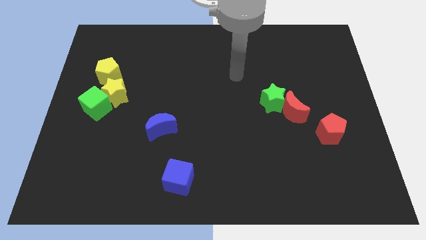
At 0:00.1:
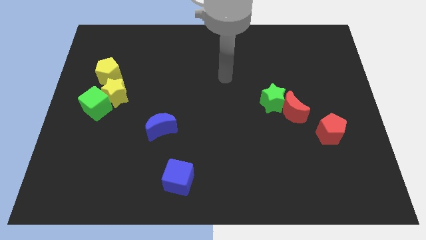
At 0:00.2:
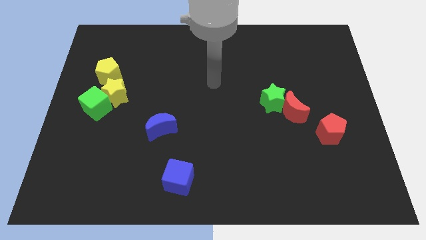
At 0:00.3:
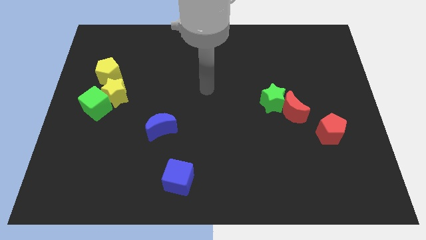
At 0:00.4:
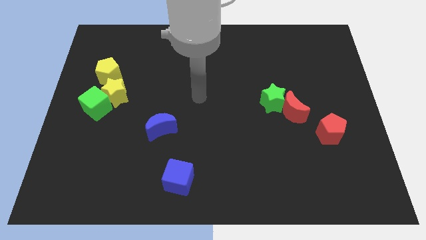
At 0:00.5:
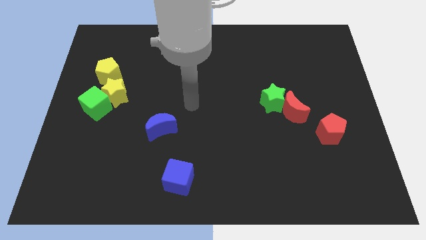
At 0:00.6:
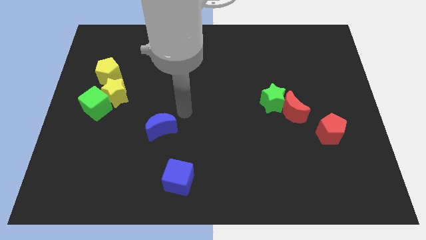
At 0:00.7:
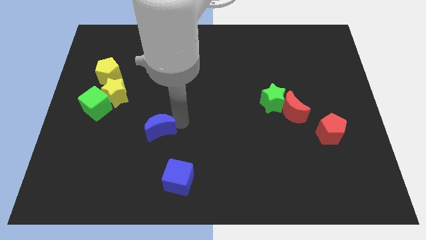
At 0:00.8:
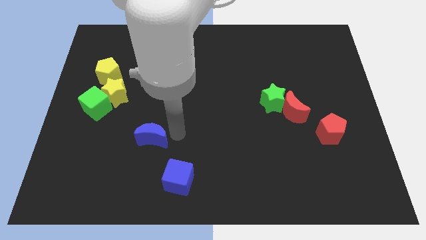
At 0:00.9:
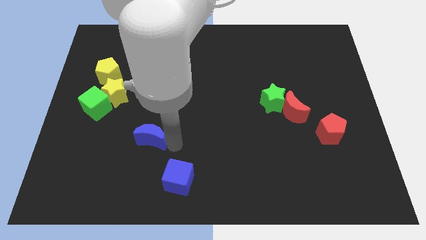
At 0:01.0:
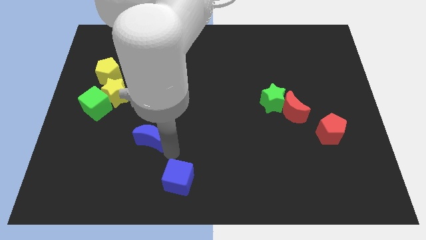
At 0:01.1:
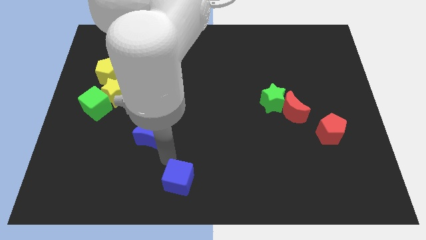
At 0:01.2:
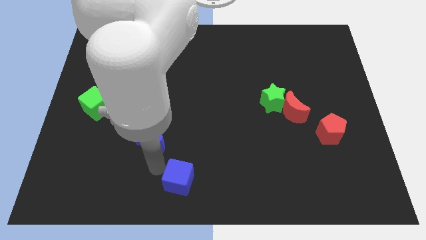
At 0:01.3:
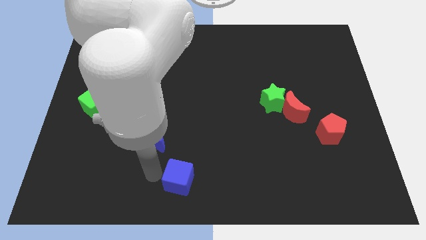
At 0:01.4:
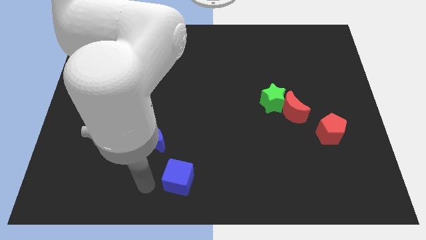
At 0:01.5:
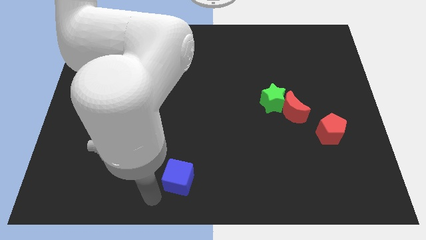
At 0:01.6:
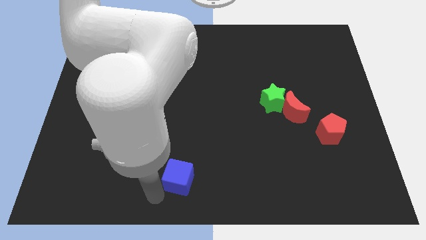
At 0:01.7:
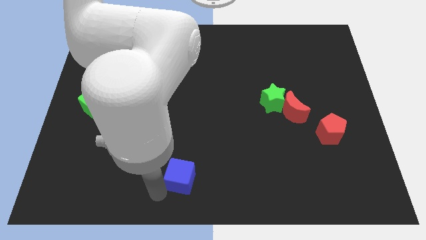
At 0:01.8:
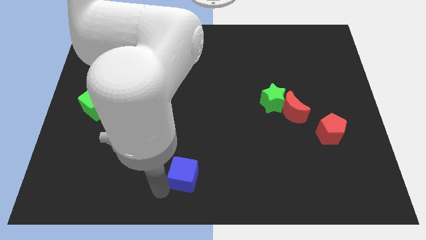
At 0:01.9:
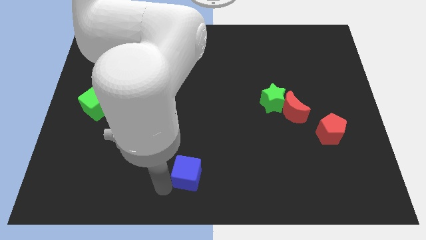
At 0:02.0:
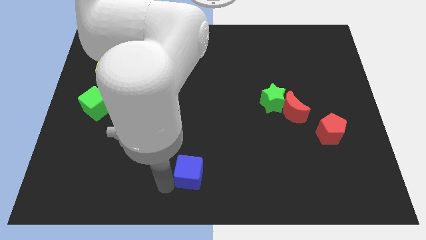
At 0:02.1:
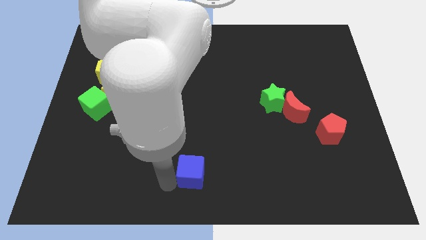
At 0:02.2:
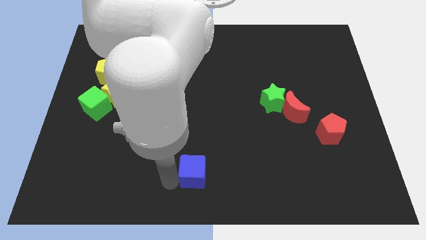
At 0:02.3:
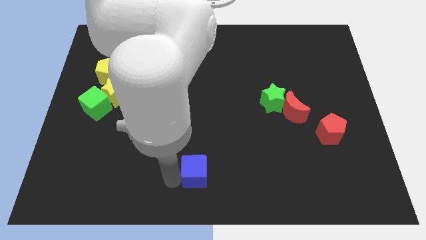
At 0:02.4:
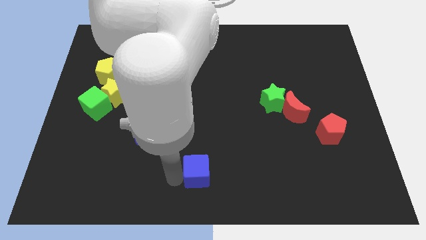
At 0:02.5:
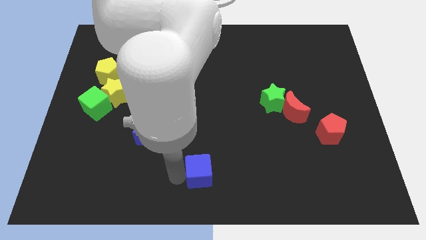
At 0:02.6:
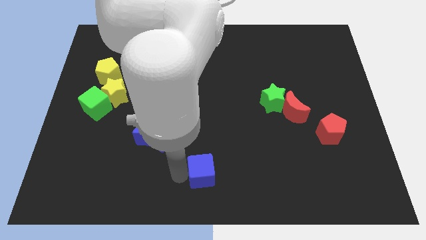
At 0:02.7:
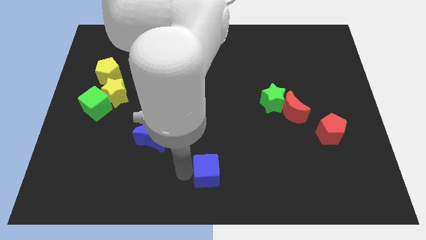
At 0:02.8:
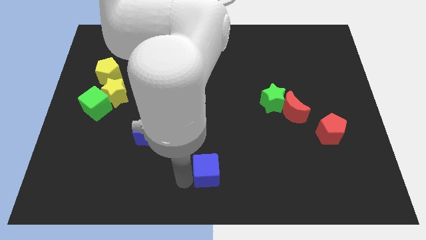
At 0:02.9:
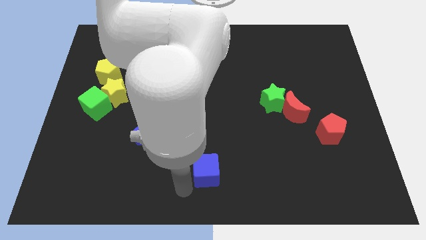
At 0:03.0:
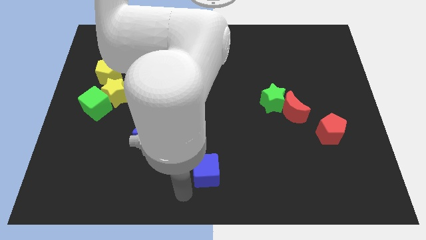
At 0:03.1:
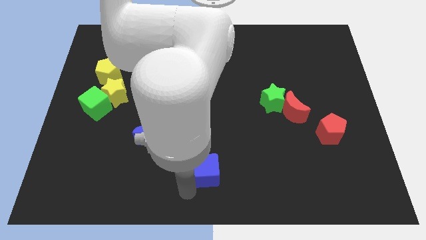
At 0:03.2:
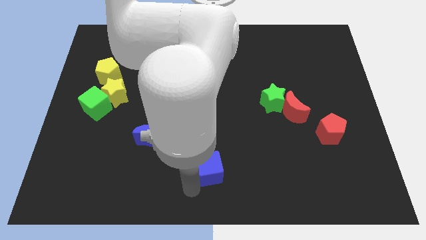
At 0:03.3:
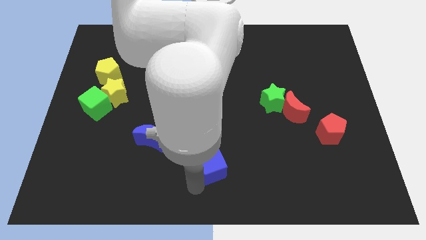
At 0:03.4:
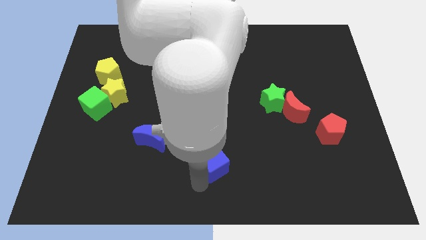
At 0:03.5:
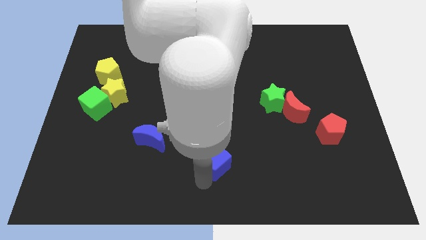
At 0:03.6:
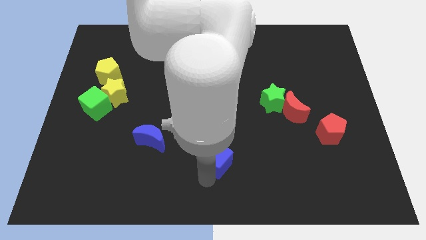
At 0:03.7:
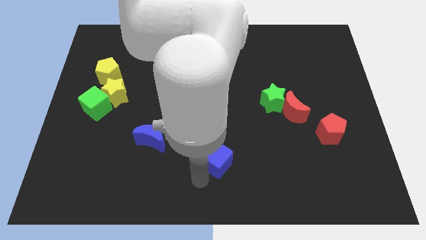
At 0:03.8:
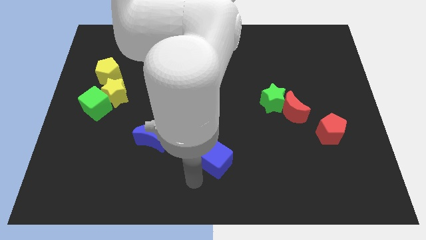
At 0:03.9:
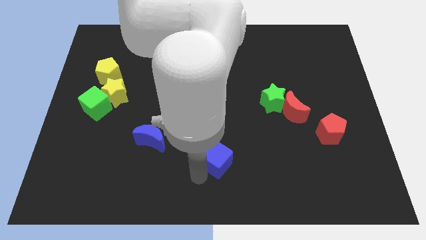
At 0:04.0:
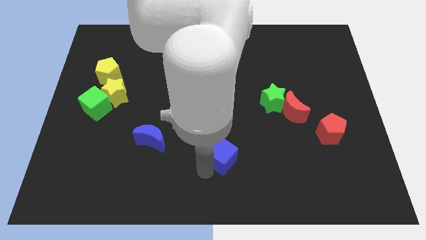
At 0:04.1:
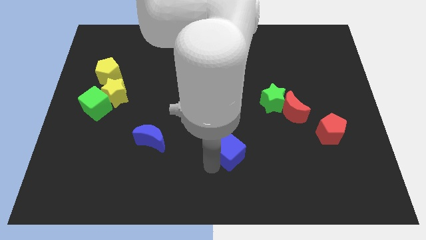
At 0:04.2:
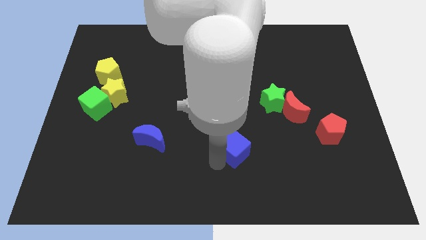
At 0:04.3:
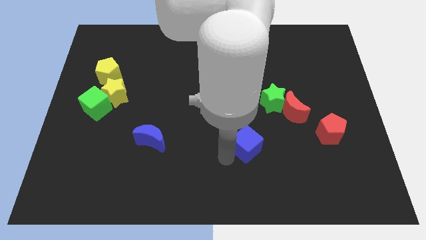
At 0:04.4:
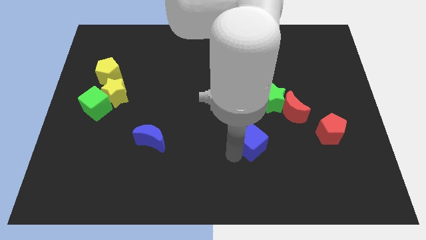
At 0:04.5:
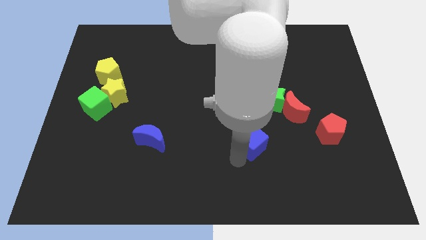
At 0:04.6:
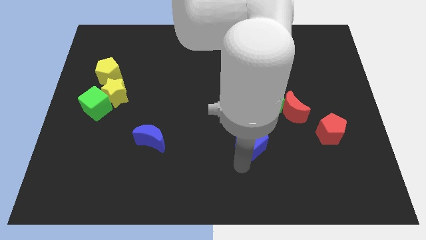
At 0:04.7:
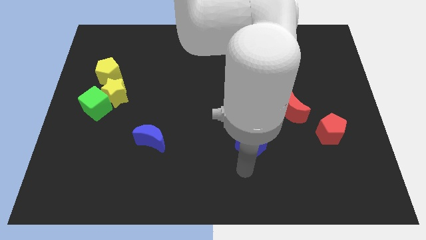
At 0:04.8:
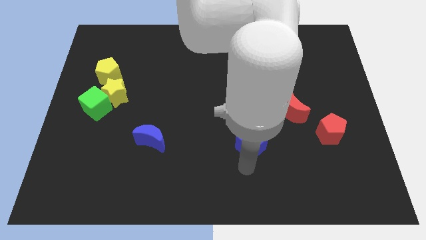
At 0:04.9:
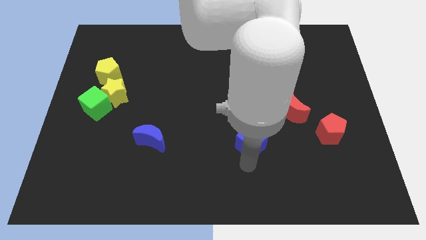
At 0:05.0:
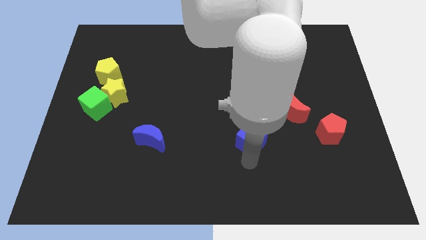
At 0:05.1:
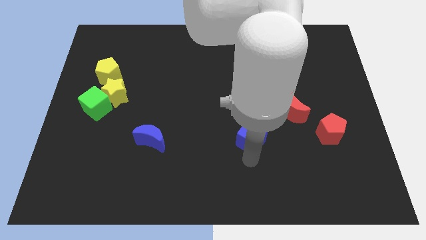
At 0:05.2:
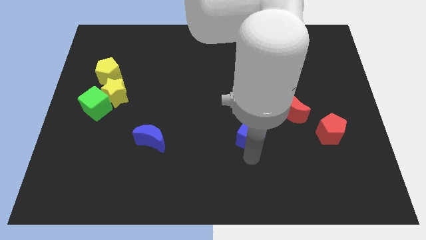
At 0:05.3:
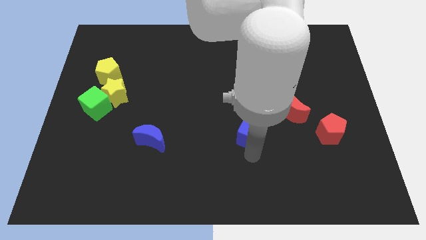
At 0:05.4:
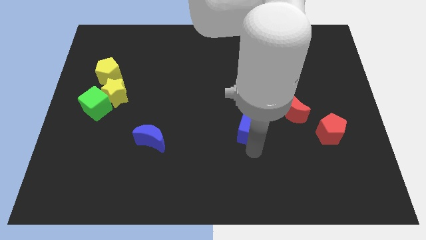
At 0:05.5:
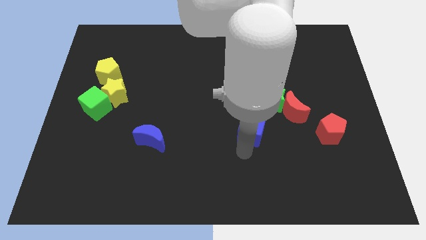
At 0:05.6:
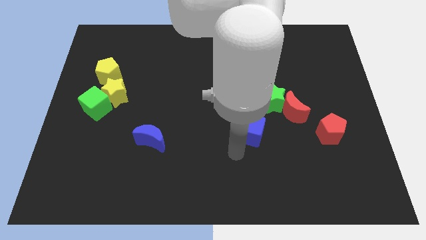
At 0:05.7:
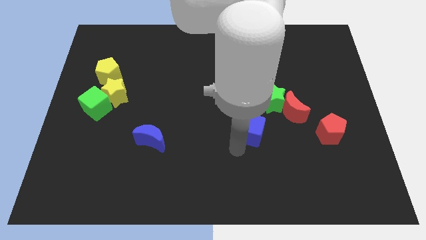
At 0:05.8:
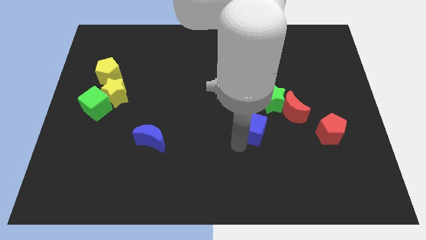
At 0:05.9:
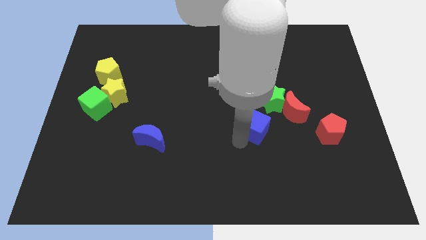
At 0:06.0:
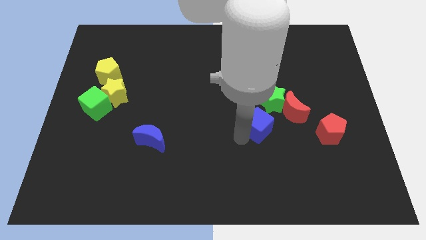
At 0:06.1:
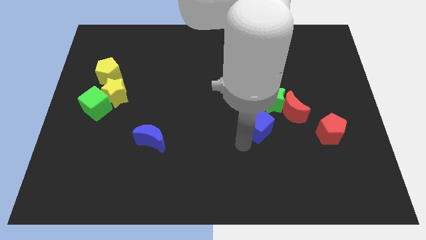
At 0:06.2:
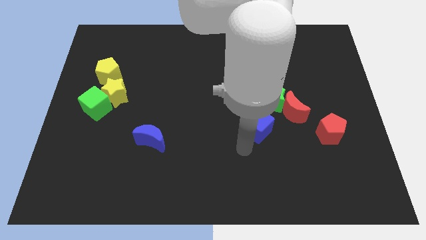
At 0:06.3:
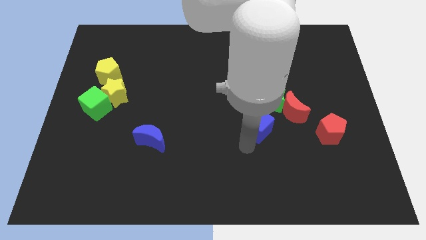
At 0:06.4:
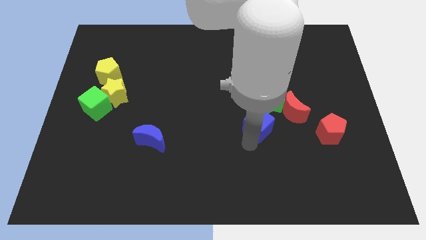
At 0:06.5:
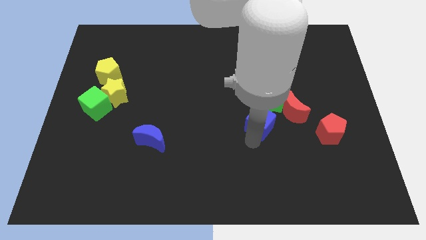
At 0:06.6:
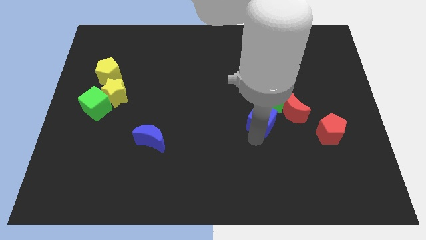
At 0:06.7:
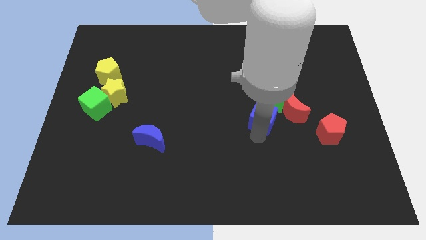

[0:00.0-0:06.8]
slide the blue cube to the green star
